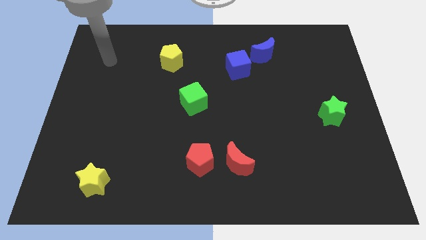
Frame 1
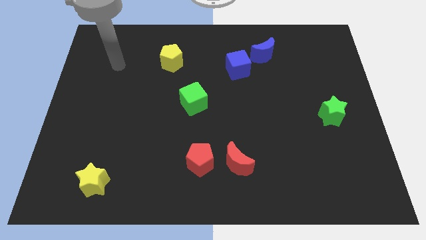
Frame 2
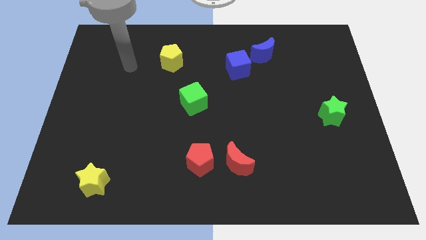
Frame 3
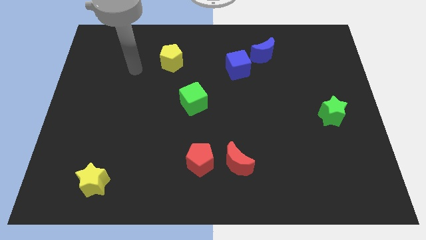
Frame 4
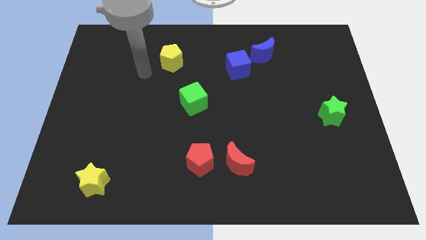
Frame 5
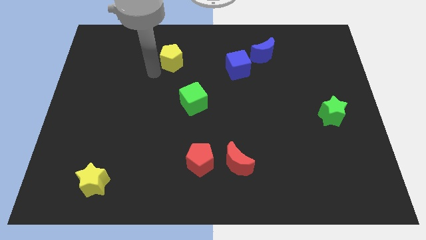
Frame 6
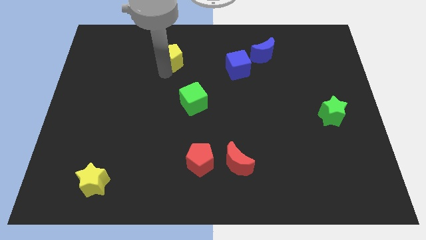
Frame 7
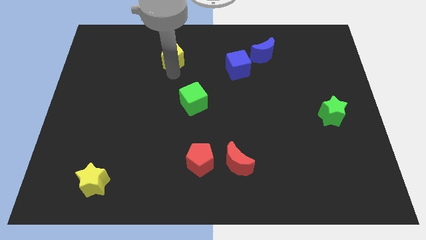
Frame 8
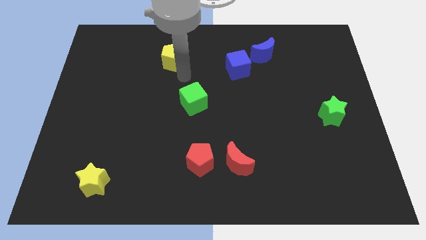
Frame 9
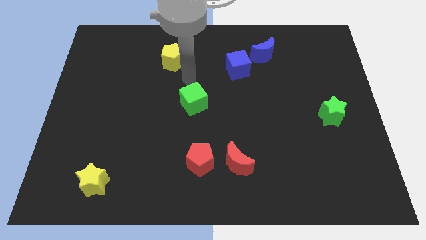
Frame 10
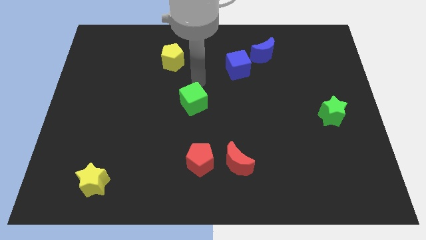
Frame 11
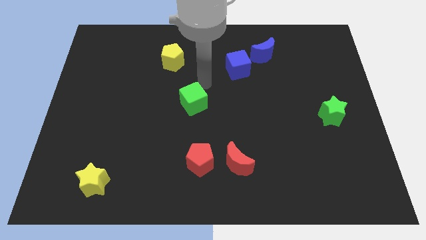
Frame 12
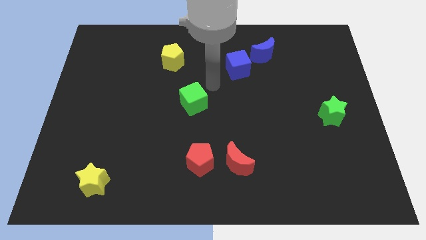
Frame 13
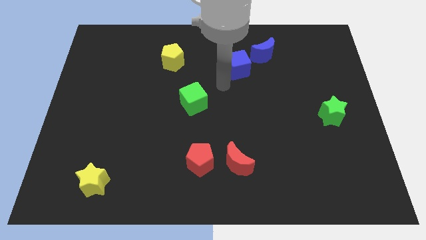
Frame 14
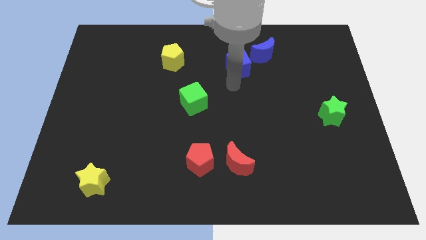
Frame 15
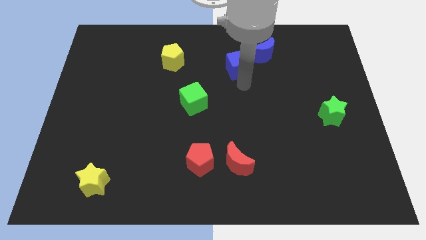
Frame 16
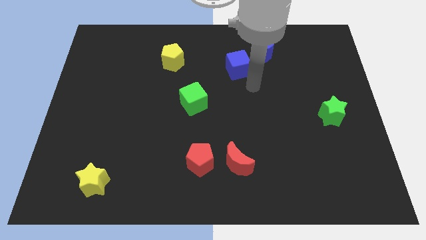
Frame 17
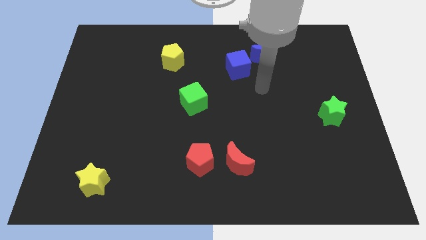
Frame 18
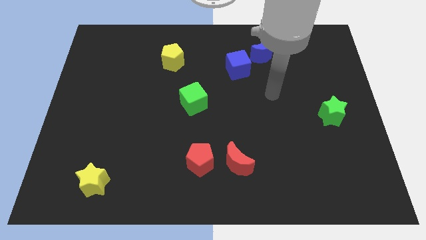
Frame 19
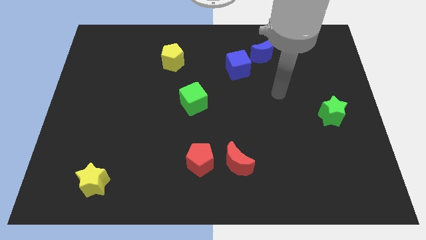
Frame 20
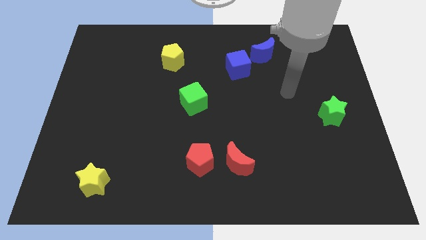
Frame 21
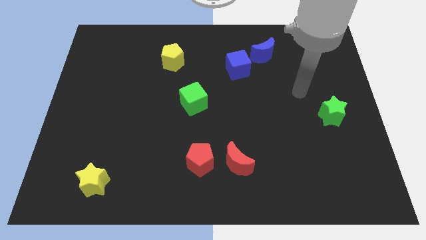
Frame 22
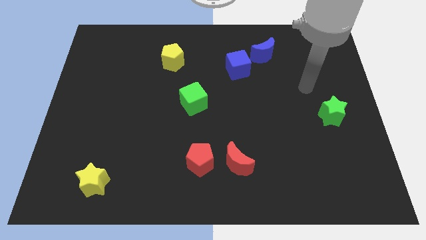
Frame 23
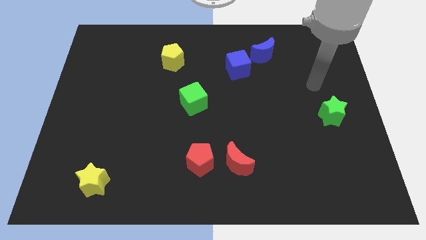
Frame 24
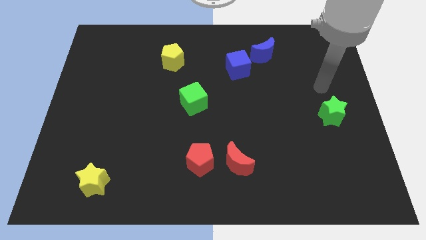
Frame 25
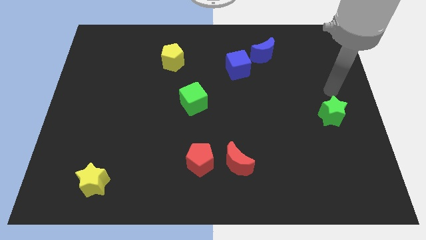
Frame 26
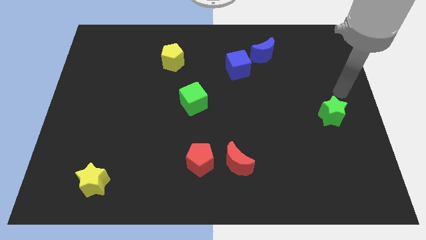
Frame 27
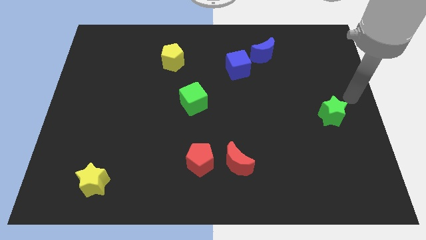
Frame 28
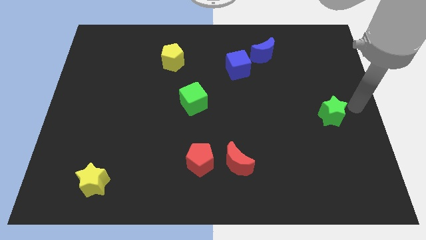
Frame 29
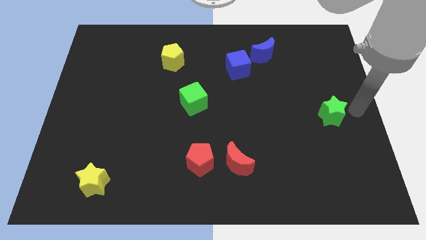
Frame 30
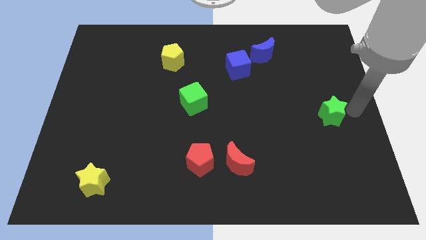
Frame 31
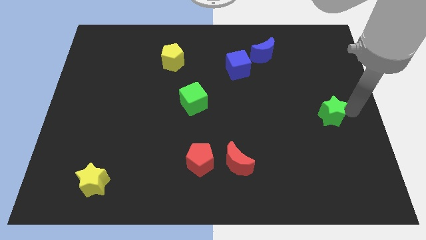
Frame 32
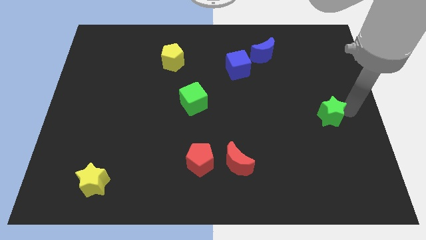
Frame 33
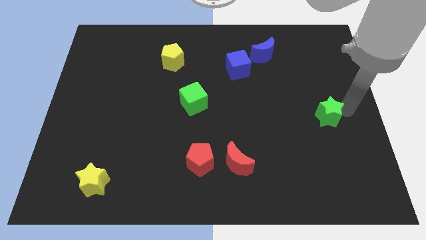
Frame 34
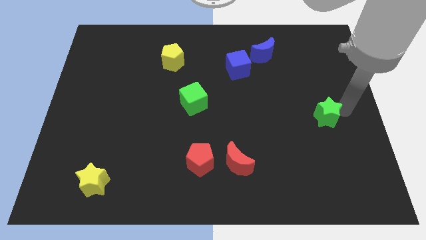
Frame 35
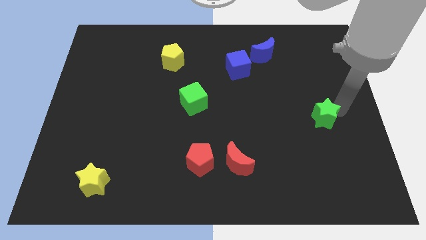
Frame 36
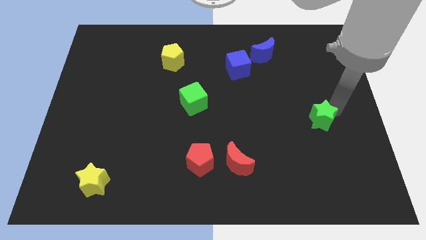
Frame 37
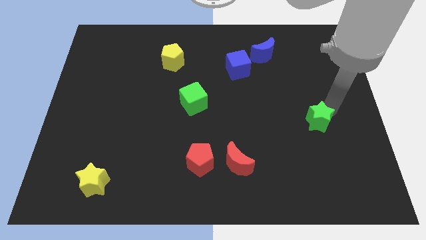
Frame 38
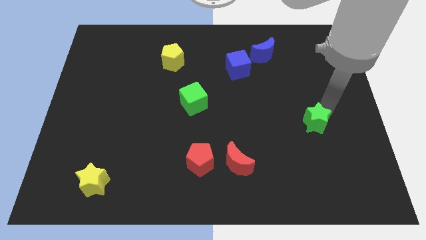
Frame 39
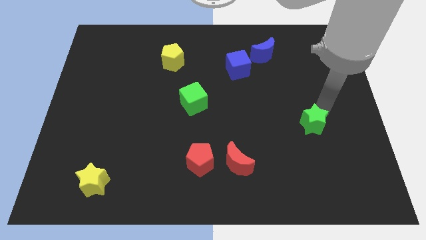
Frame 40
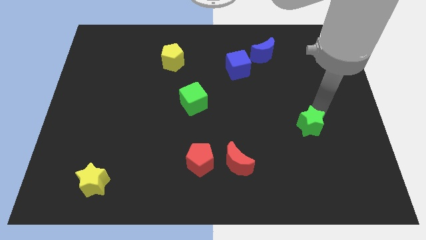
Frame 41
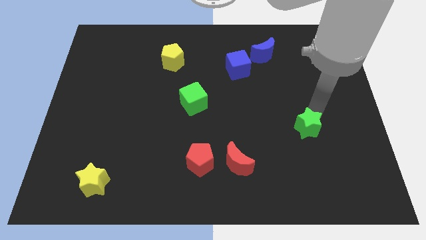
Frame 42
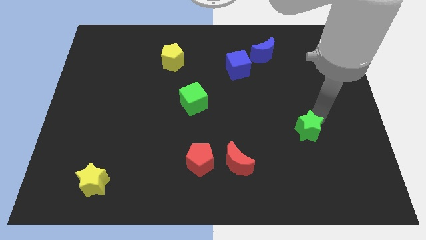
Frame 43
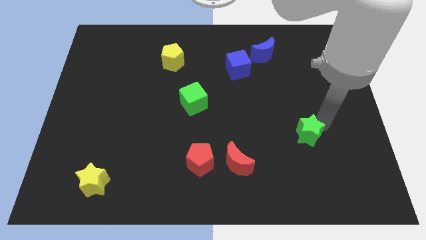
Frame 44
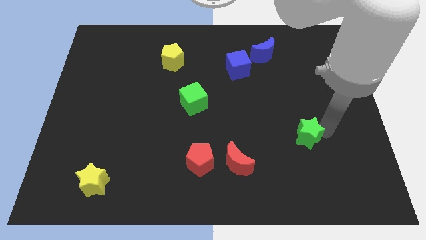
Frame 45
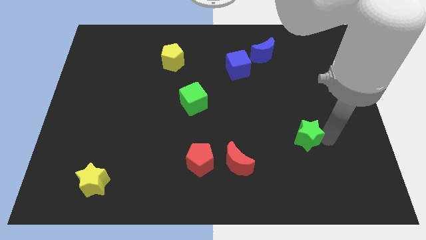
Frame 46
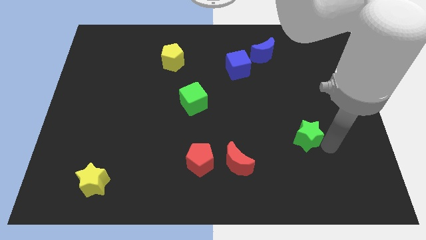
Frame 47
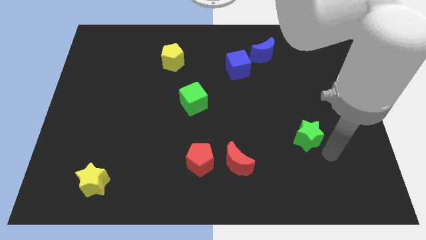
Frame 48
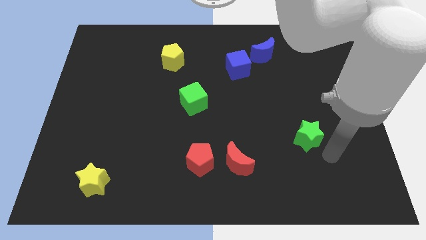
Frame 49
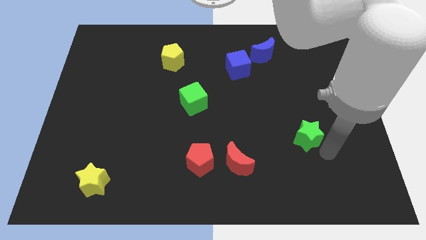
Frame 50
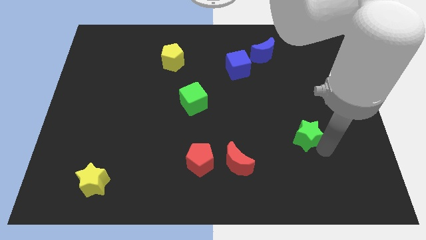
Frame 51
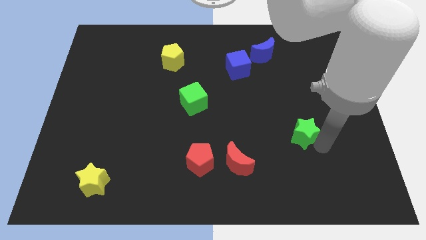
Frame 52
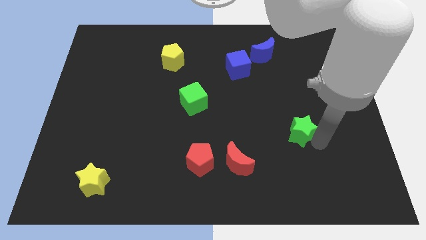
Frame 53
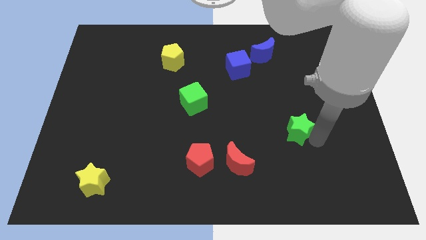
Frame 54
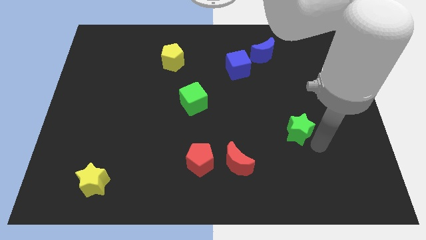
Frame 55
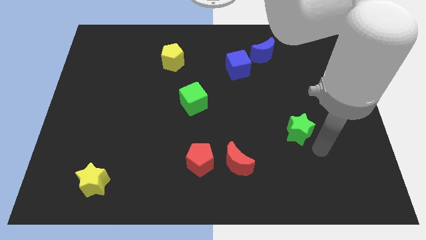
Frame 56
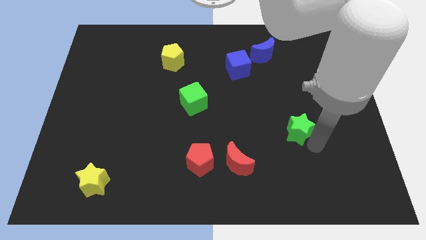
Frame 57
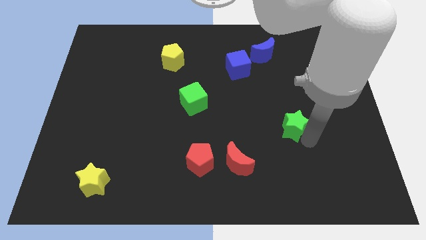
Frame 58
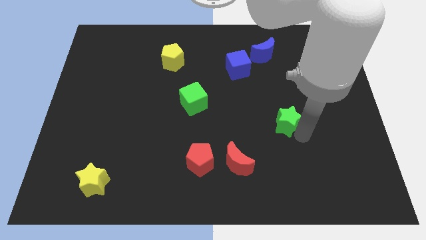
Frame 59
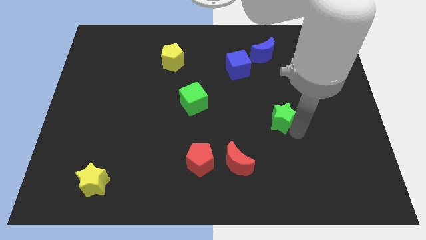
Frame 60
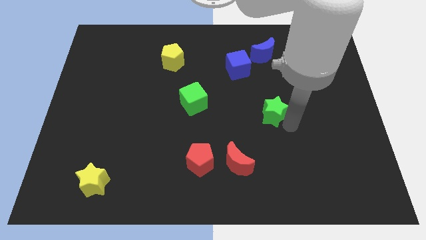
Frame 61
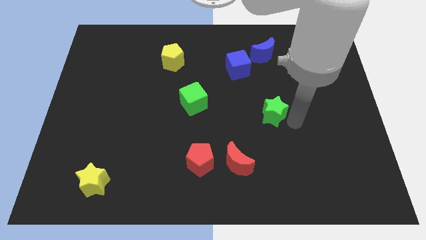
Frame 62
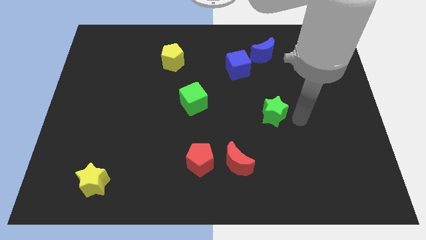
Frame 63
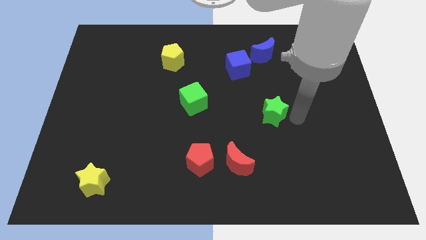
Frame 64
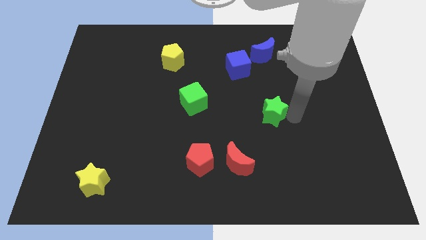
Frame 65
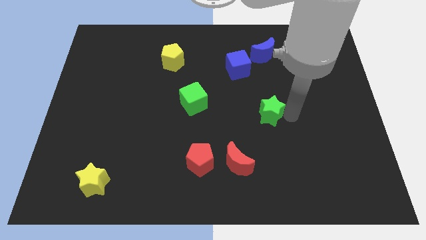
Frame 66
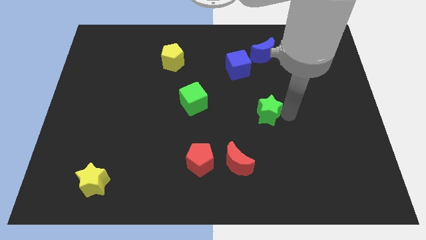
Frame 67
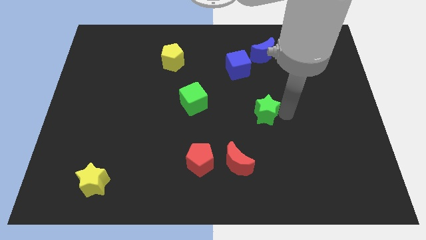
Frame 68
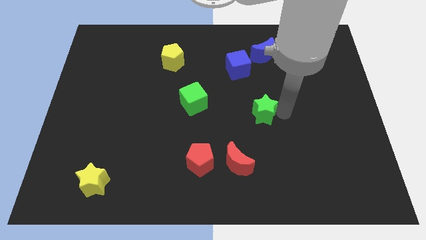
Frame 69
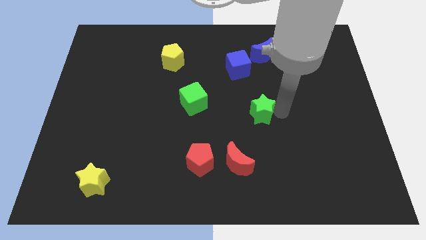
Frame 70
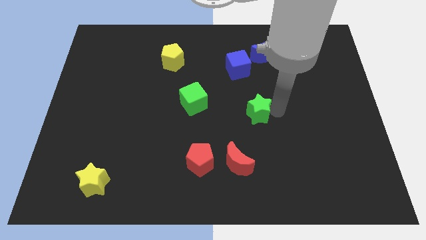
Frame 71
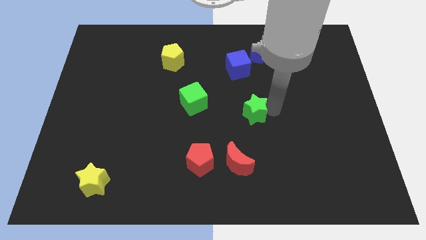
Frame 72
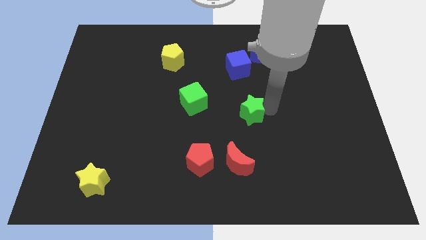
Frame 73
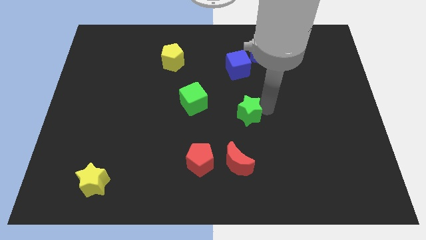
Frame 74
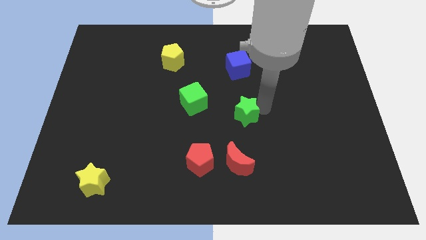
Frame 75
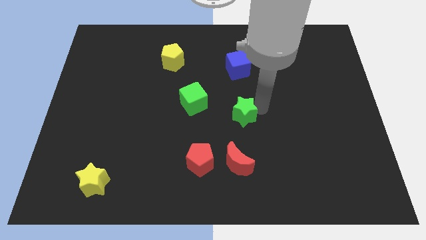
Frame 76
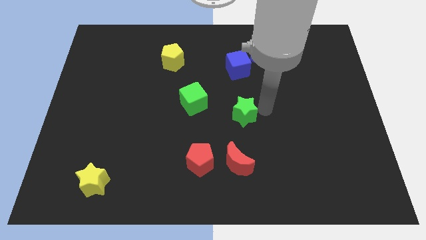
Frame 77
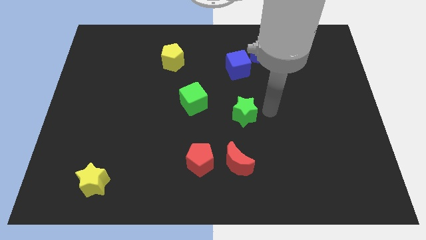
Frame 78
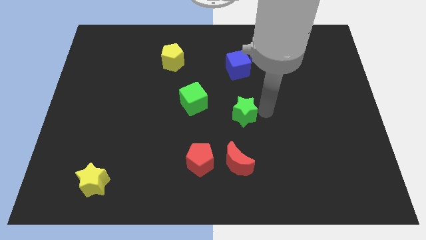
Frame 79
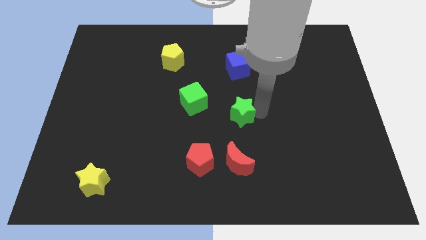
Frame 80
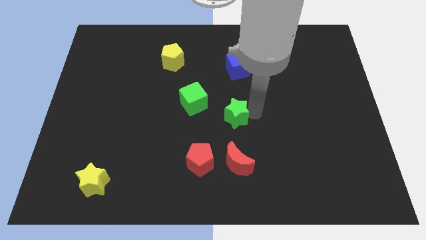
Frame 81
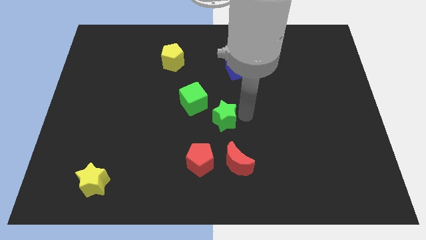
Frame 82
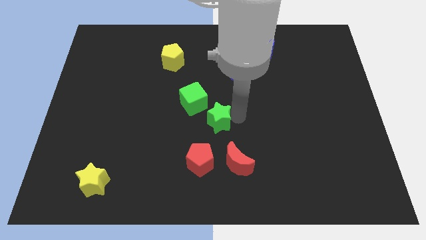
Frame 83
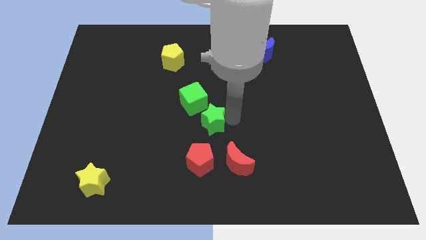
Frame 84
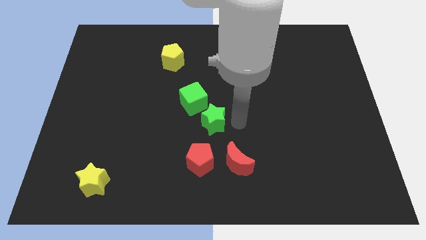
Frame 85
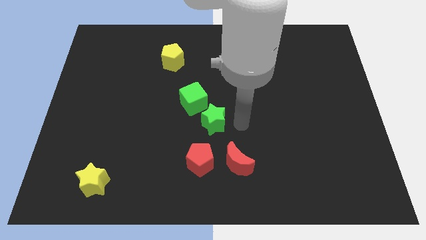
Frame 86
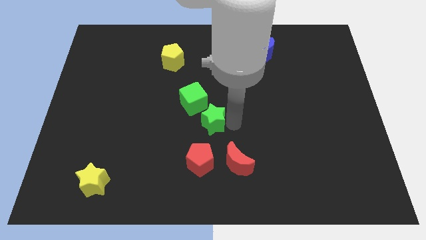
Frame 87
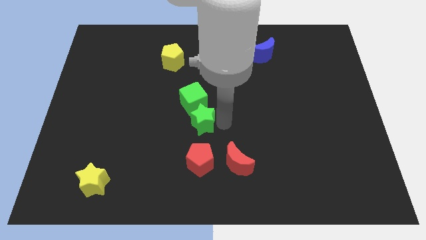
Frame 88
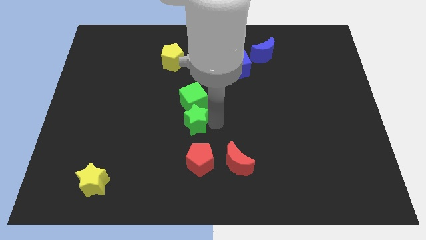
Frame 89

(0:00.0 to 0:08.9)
slide the green star to the bottom left of the green cube
